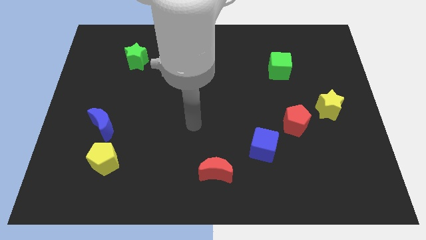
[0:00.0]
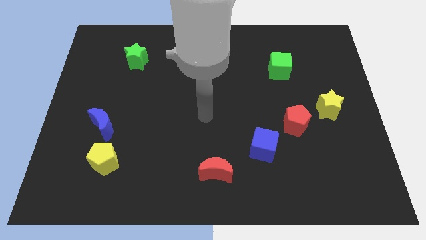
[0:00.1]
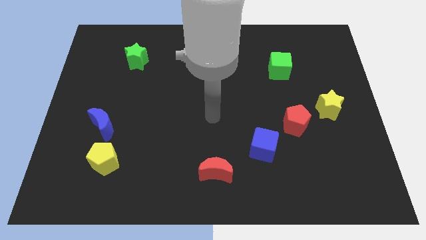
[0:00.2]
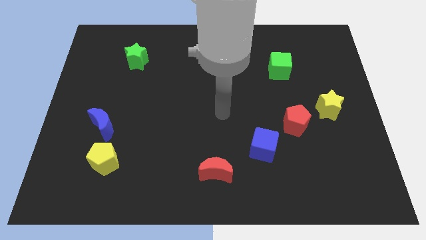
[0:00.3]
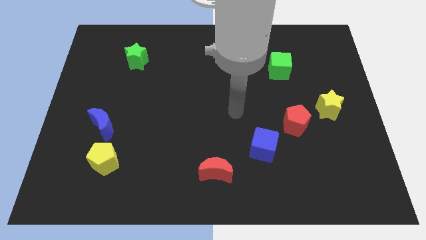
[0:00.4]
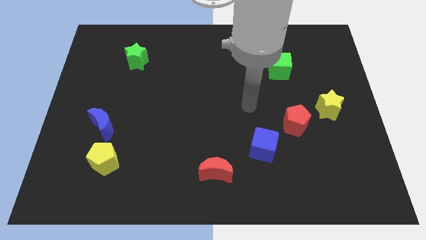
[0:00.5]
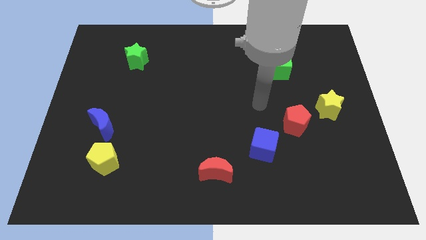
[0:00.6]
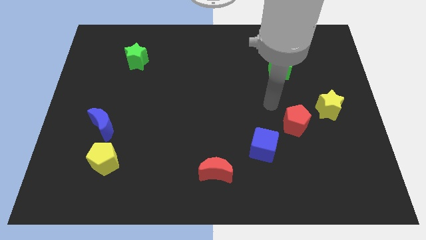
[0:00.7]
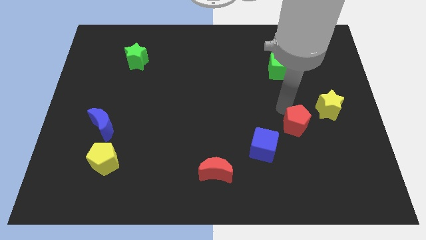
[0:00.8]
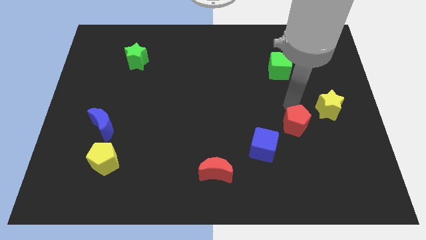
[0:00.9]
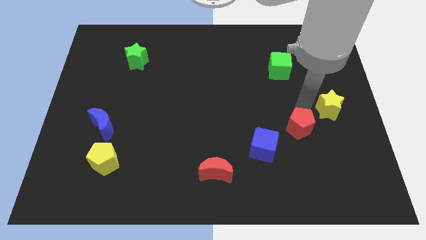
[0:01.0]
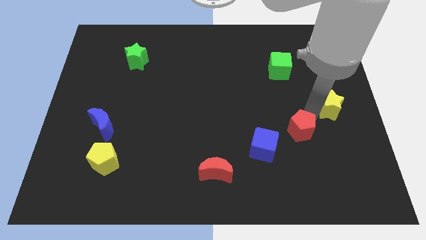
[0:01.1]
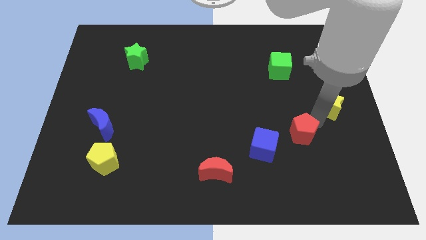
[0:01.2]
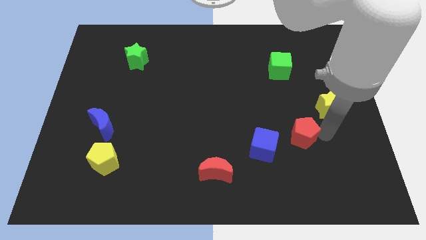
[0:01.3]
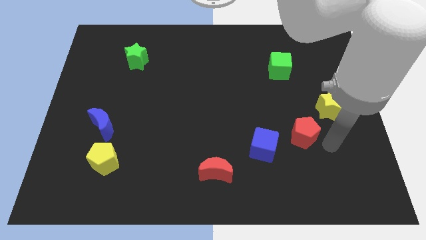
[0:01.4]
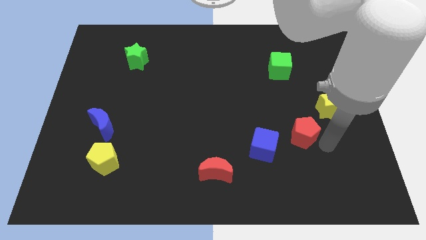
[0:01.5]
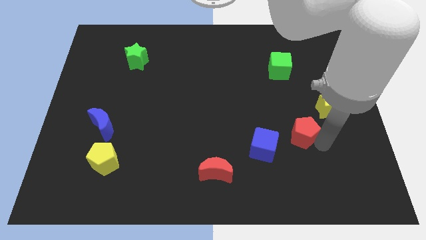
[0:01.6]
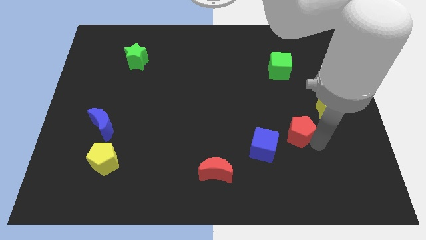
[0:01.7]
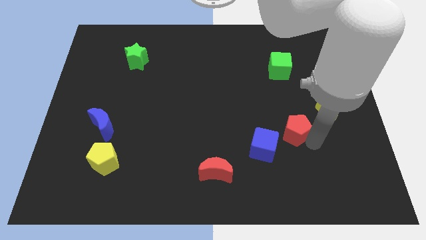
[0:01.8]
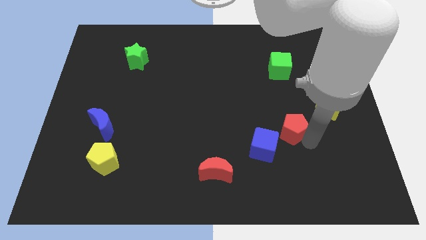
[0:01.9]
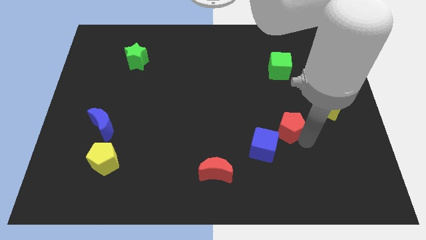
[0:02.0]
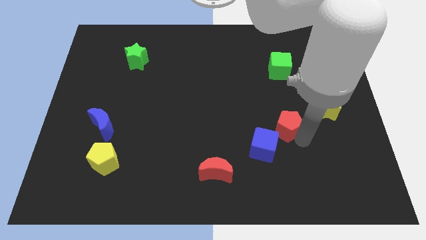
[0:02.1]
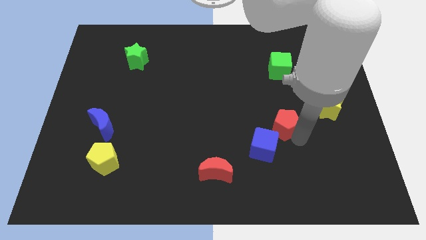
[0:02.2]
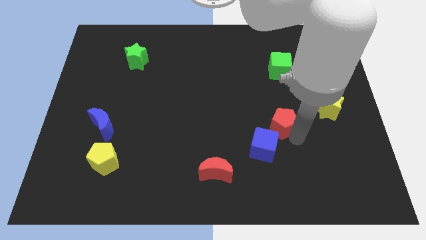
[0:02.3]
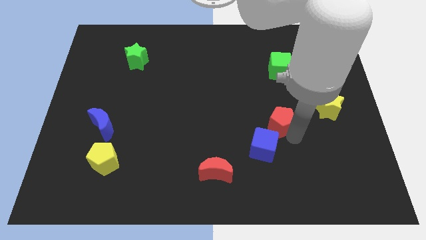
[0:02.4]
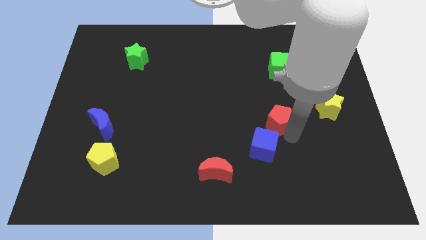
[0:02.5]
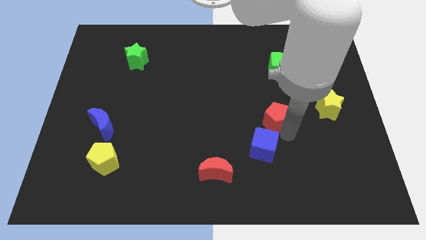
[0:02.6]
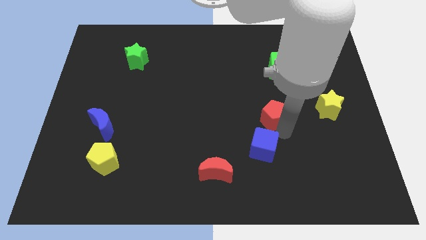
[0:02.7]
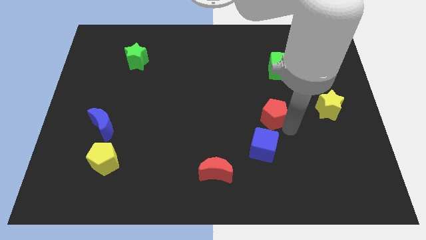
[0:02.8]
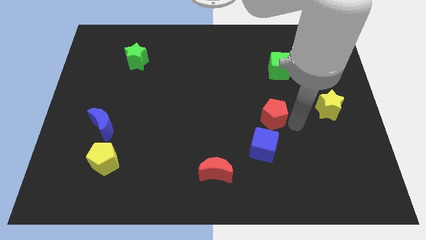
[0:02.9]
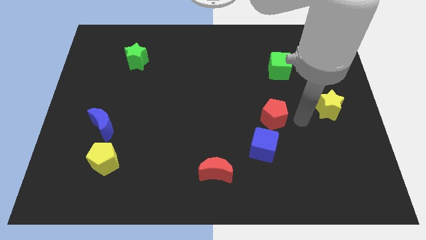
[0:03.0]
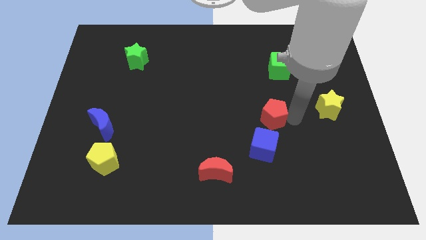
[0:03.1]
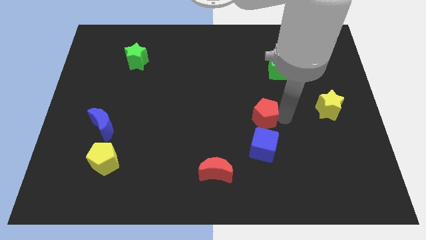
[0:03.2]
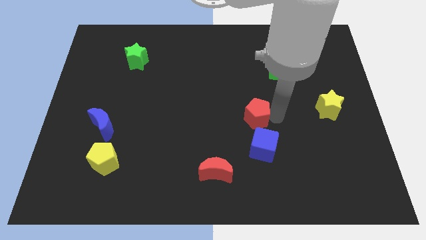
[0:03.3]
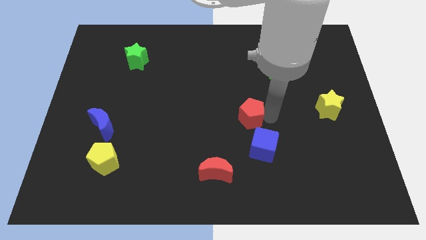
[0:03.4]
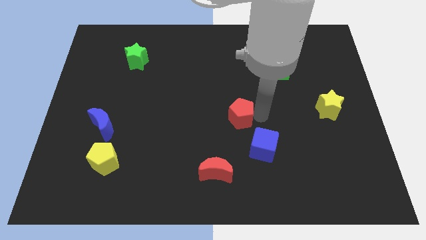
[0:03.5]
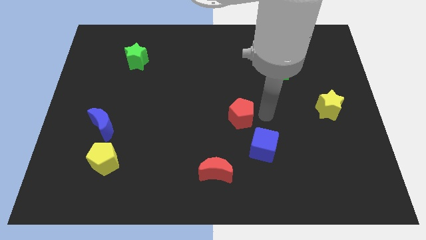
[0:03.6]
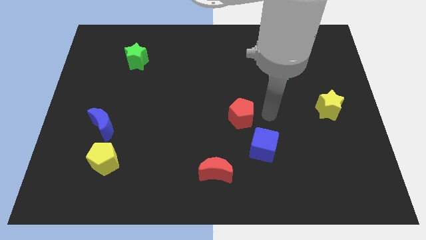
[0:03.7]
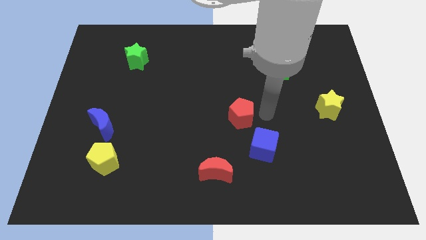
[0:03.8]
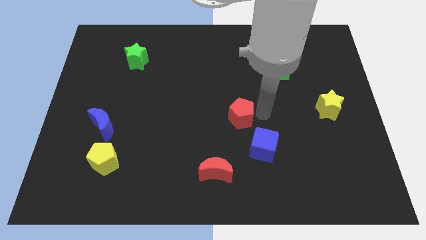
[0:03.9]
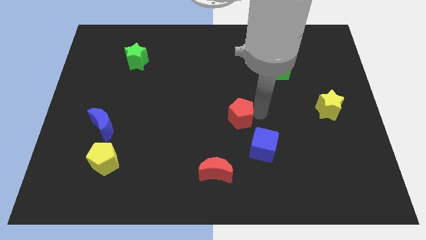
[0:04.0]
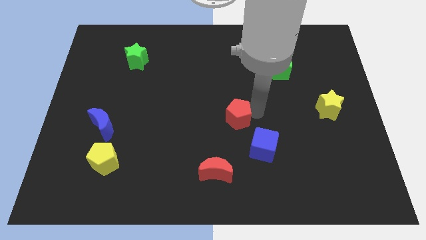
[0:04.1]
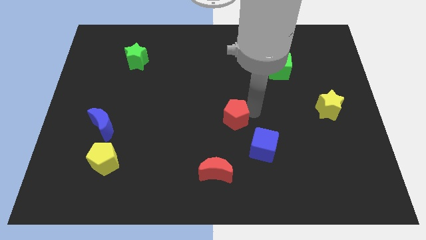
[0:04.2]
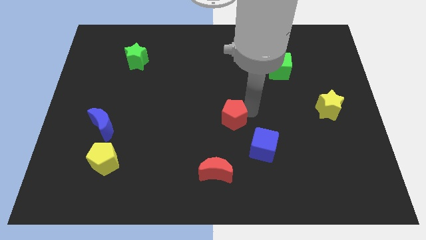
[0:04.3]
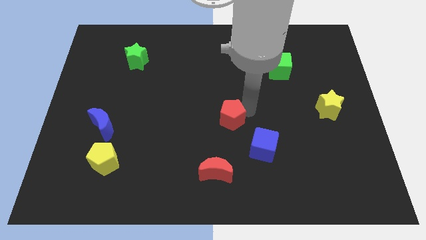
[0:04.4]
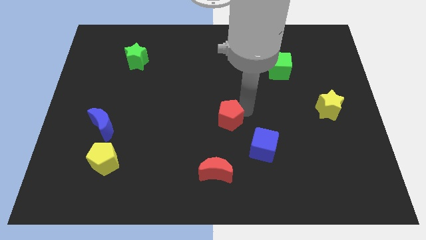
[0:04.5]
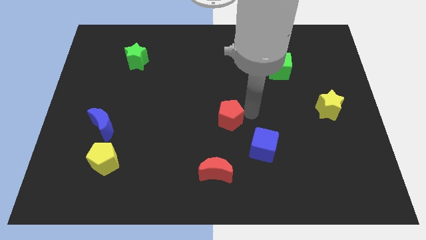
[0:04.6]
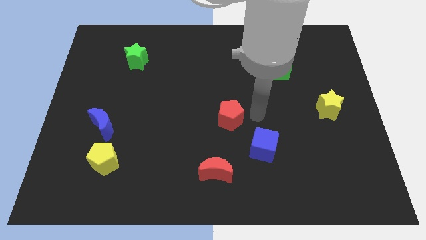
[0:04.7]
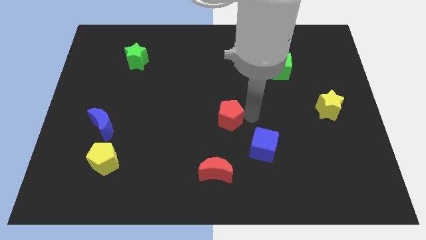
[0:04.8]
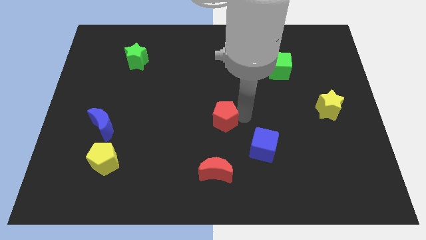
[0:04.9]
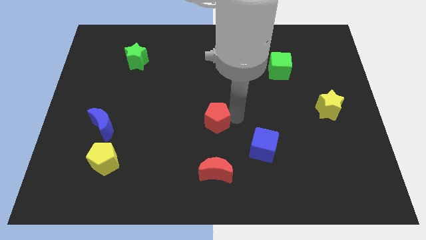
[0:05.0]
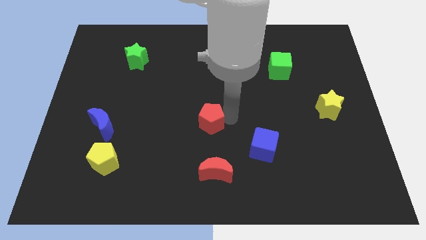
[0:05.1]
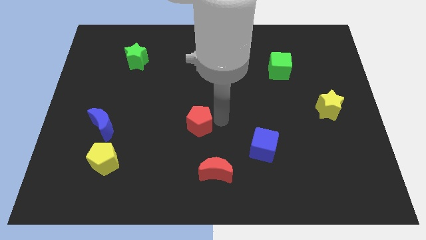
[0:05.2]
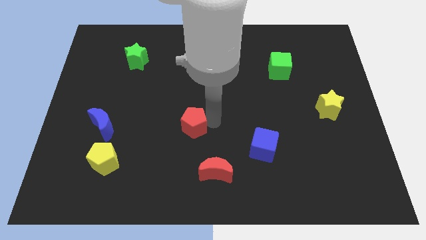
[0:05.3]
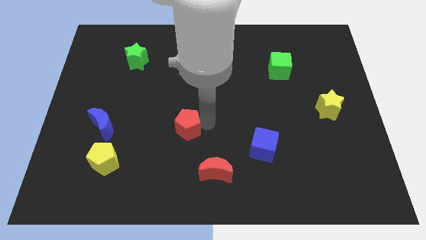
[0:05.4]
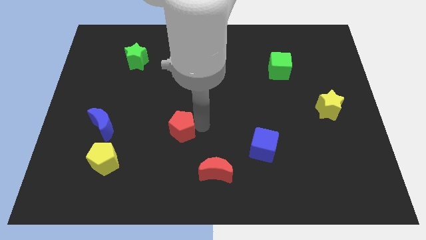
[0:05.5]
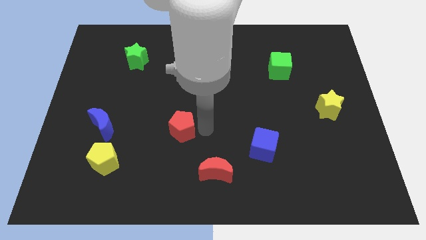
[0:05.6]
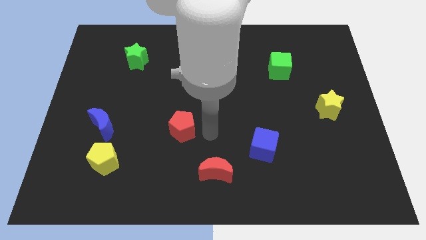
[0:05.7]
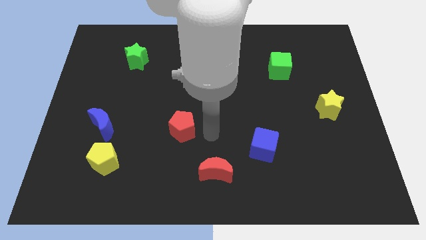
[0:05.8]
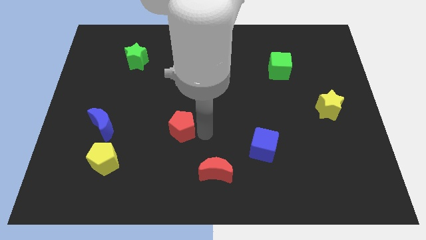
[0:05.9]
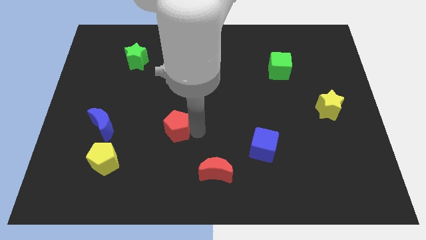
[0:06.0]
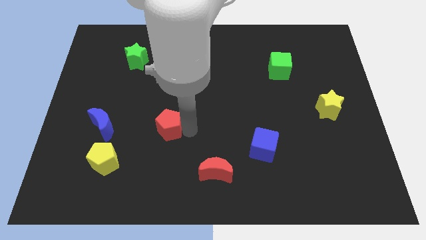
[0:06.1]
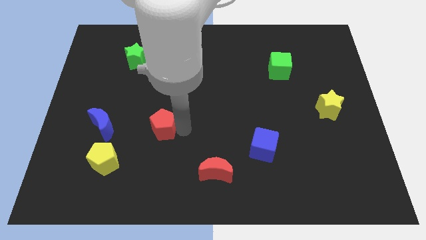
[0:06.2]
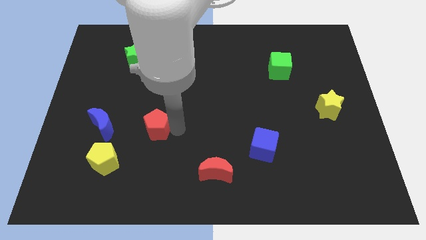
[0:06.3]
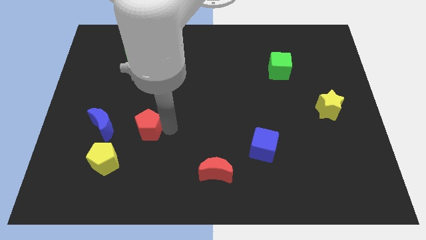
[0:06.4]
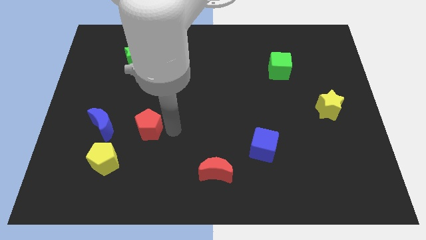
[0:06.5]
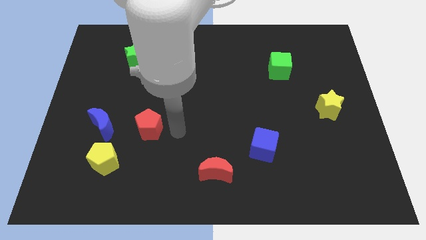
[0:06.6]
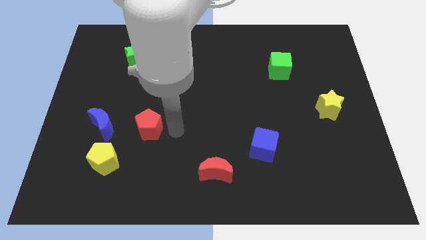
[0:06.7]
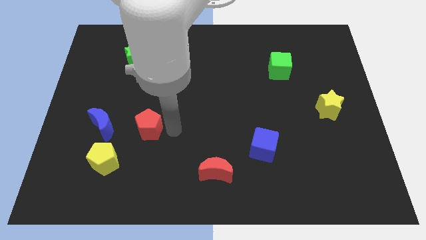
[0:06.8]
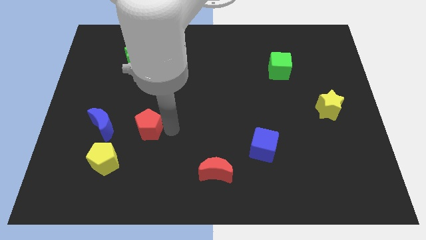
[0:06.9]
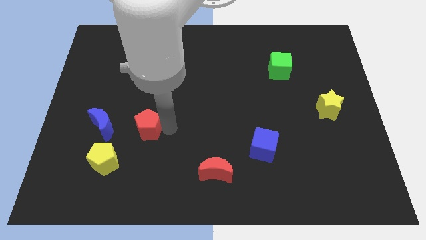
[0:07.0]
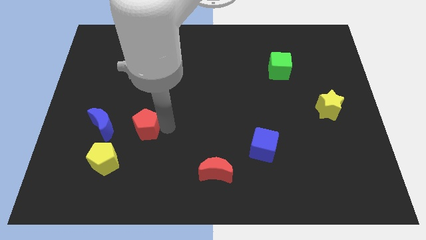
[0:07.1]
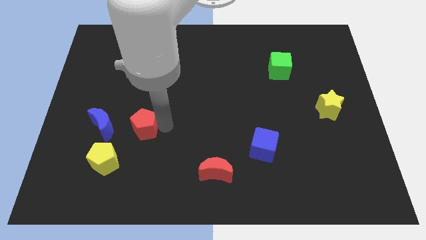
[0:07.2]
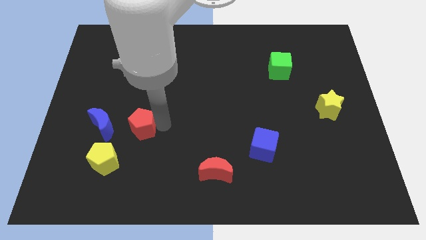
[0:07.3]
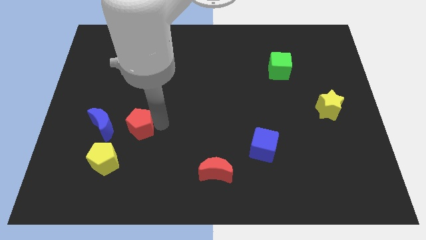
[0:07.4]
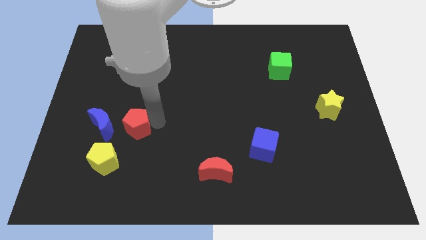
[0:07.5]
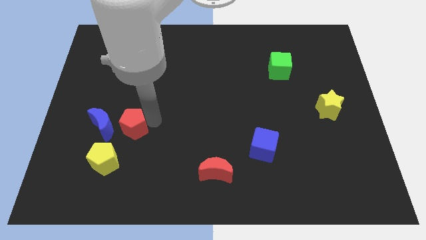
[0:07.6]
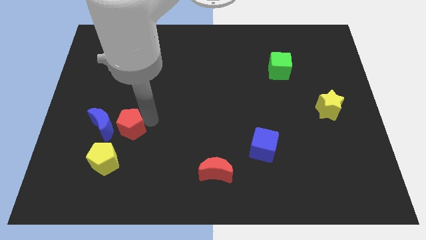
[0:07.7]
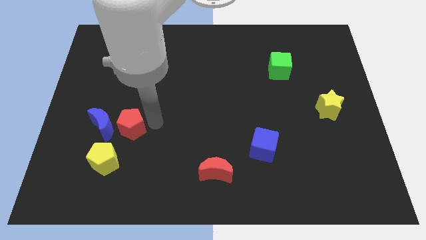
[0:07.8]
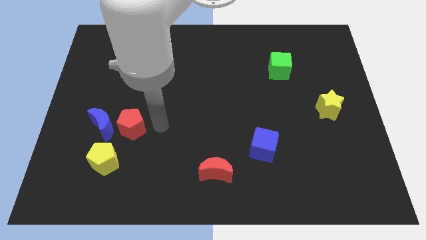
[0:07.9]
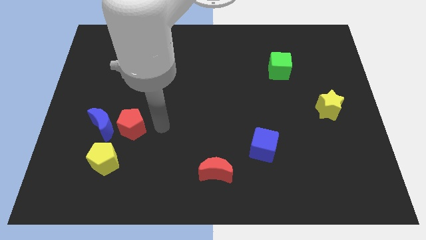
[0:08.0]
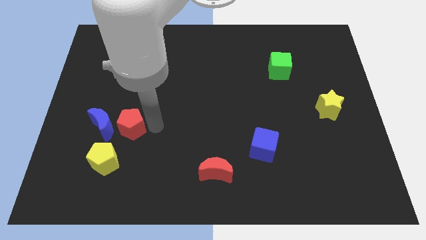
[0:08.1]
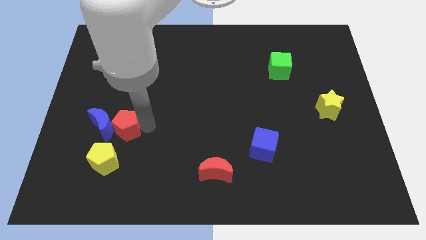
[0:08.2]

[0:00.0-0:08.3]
slide the red pentagon next to the blue moon
